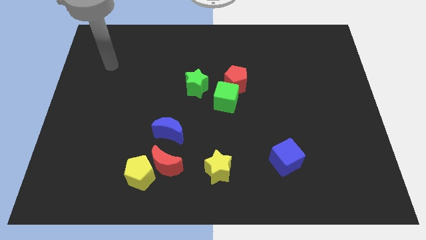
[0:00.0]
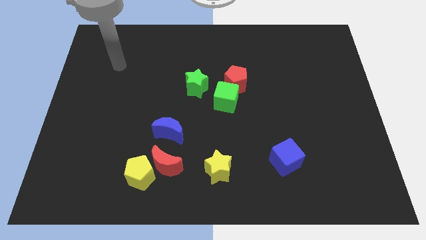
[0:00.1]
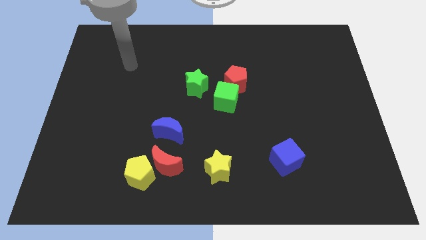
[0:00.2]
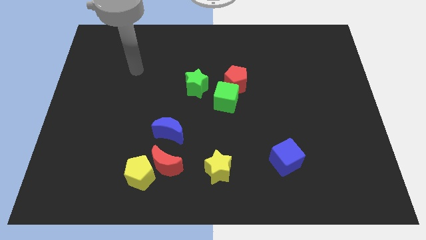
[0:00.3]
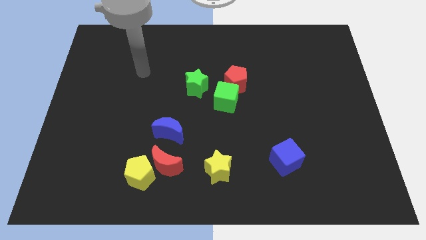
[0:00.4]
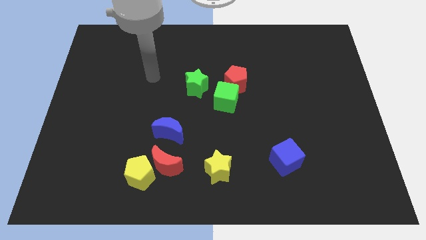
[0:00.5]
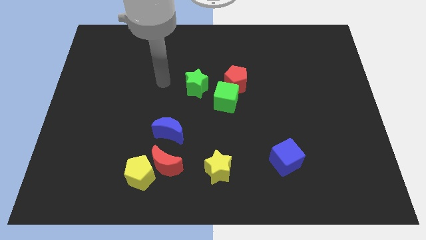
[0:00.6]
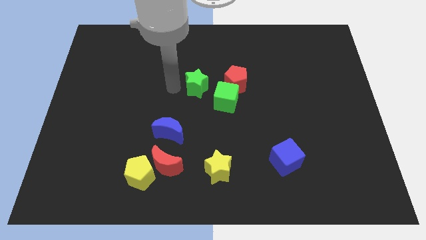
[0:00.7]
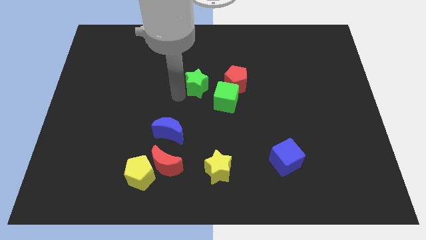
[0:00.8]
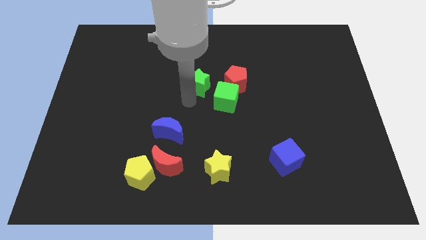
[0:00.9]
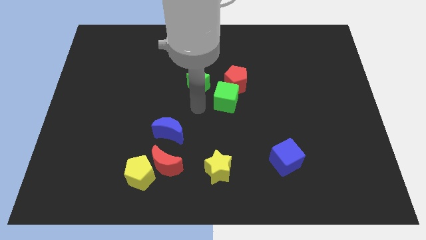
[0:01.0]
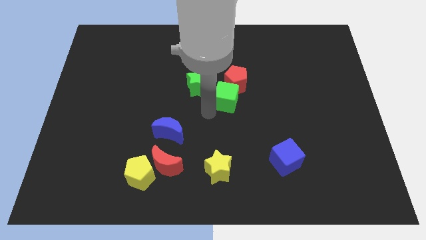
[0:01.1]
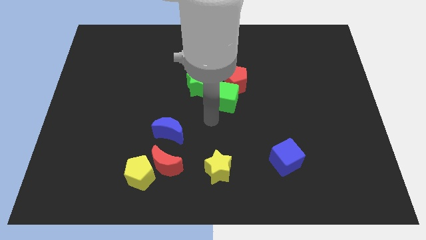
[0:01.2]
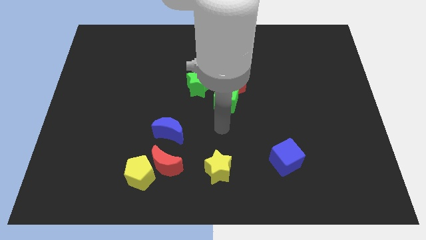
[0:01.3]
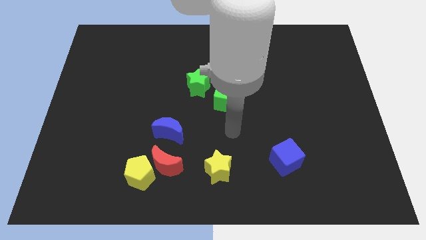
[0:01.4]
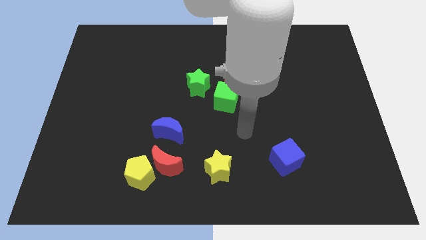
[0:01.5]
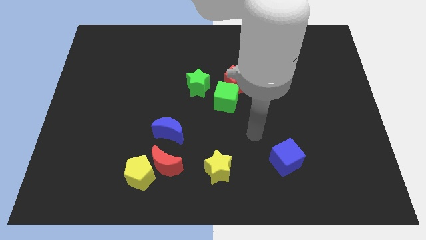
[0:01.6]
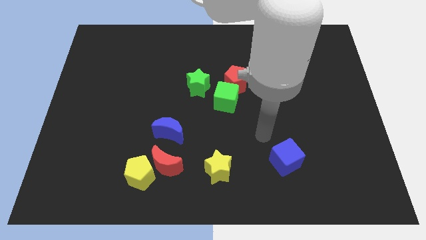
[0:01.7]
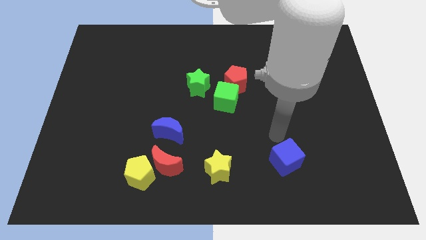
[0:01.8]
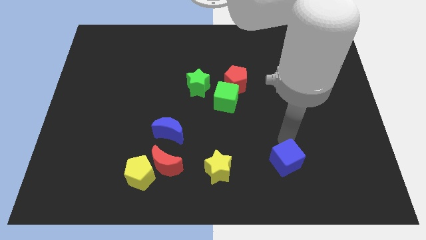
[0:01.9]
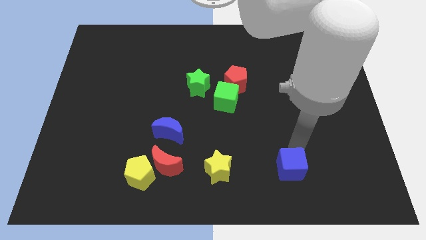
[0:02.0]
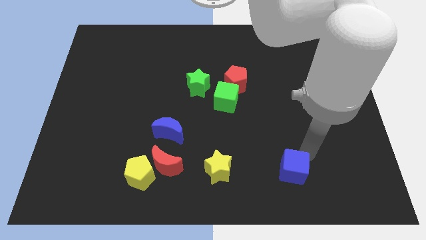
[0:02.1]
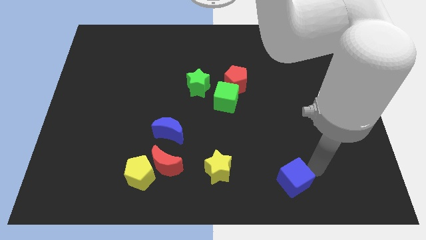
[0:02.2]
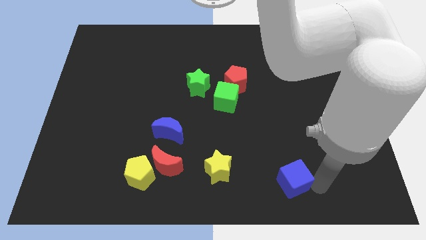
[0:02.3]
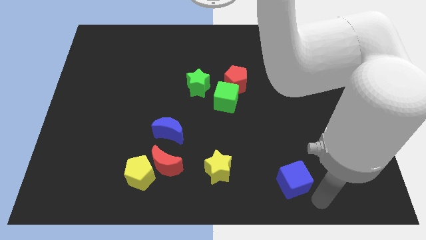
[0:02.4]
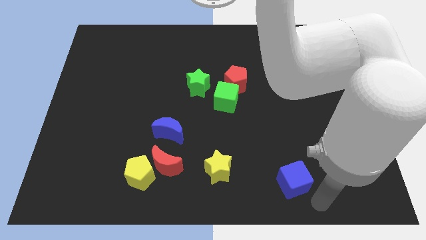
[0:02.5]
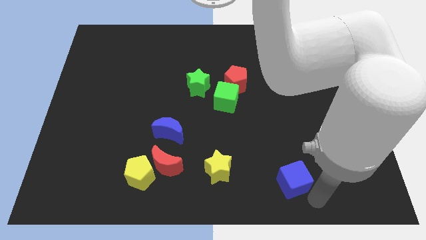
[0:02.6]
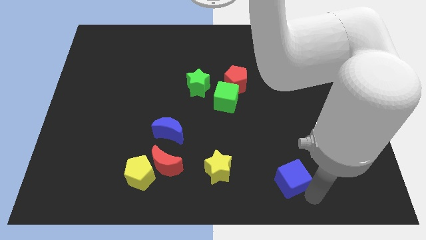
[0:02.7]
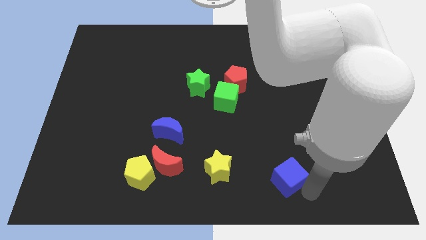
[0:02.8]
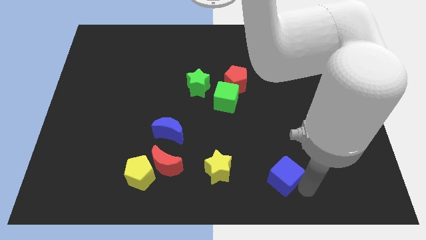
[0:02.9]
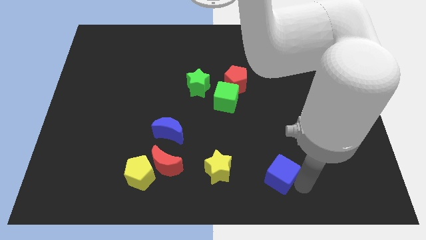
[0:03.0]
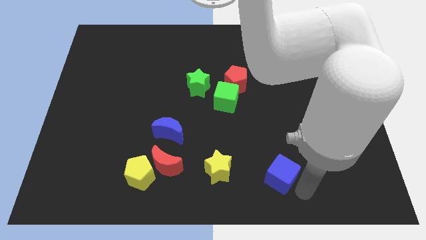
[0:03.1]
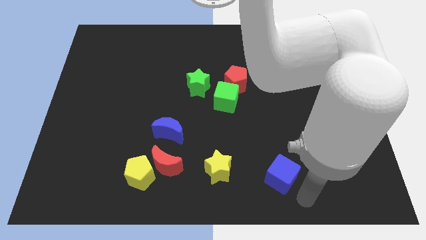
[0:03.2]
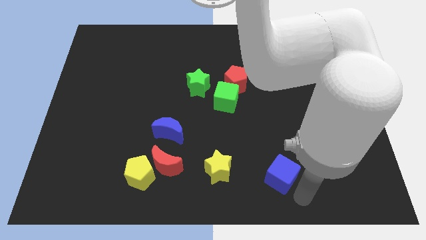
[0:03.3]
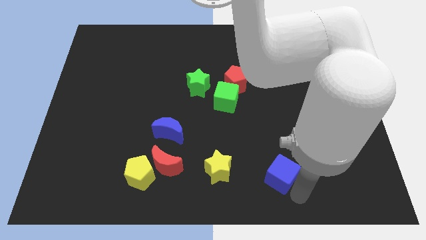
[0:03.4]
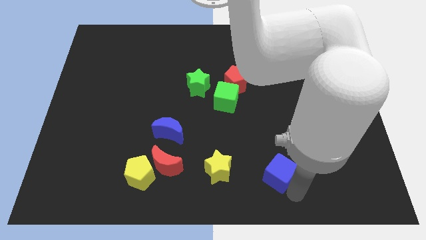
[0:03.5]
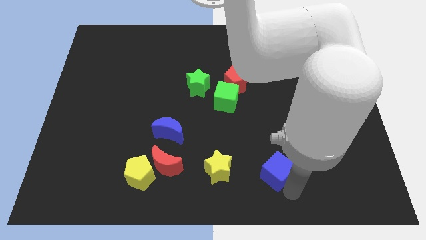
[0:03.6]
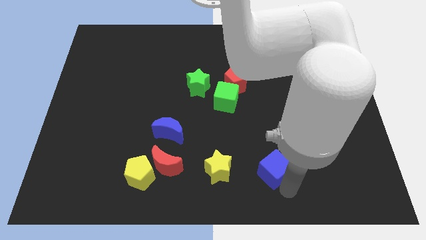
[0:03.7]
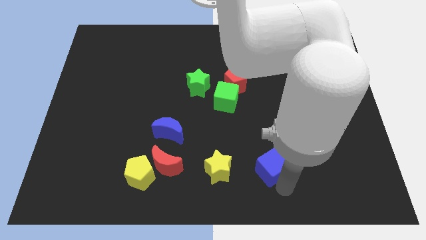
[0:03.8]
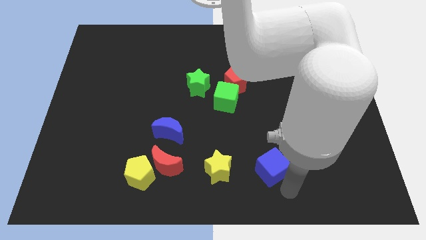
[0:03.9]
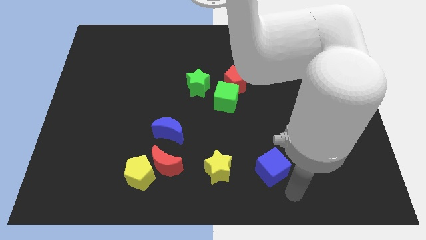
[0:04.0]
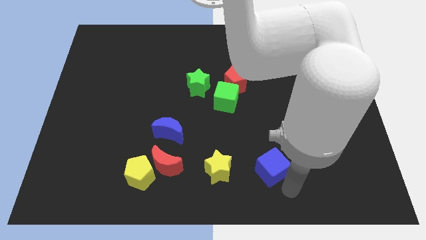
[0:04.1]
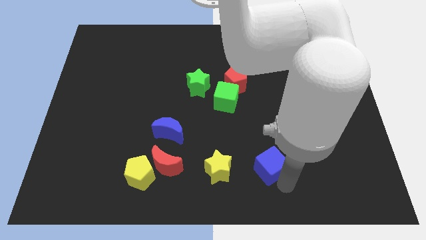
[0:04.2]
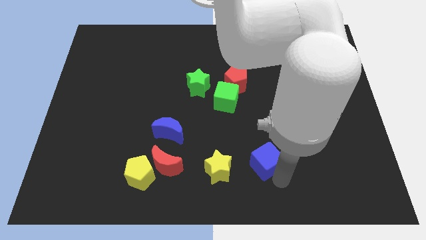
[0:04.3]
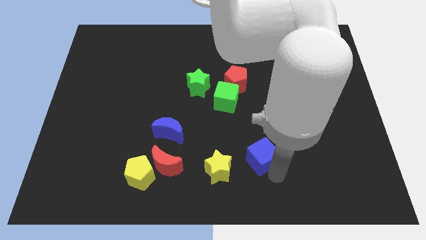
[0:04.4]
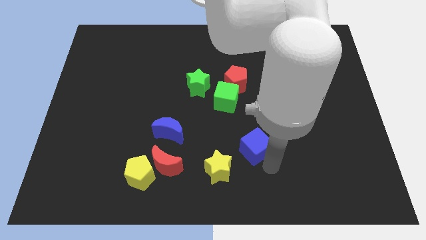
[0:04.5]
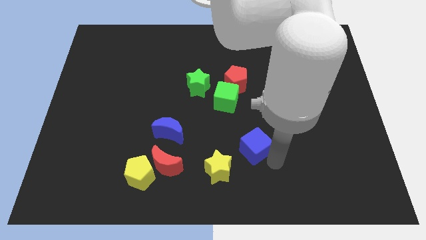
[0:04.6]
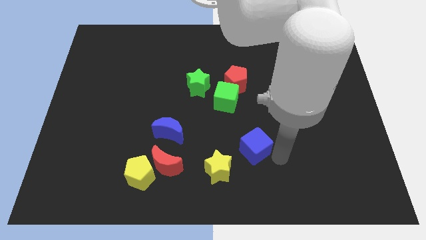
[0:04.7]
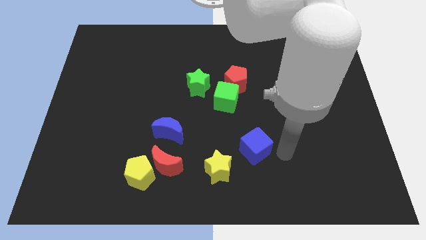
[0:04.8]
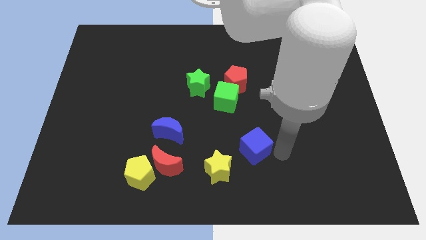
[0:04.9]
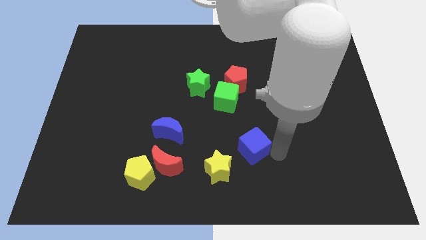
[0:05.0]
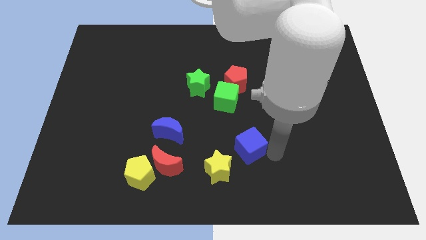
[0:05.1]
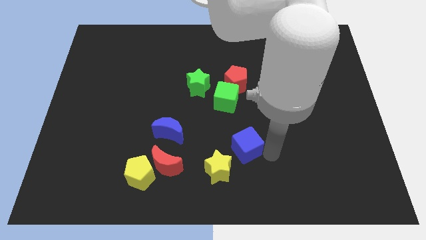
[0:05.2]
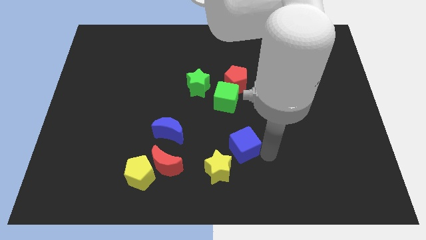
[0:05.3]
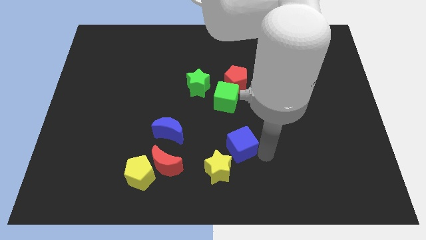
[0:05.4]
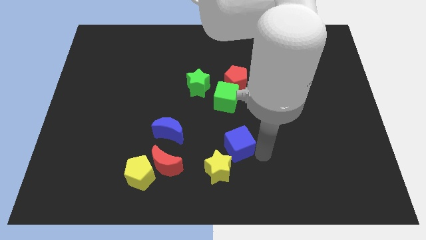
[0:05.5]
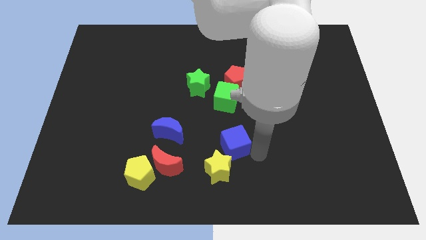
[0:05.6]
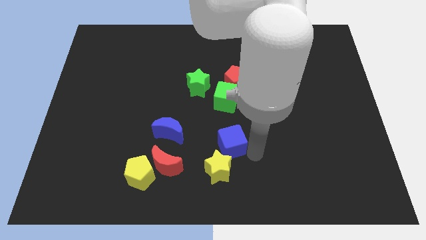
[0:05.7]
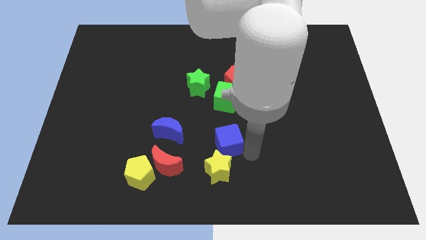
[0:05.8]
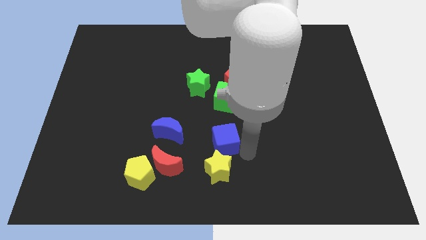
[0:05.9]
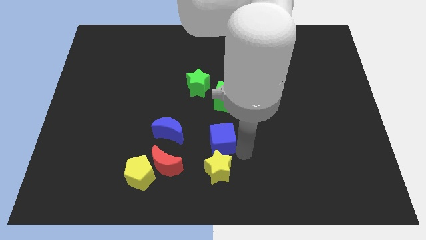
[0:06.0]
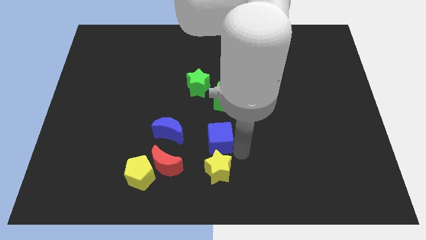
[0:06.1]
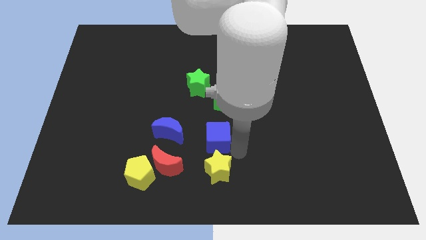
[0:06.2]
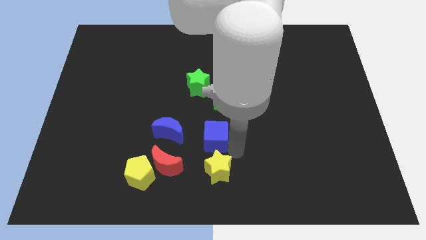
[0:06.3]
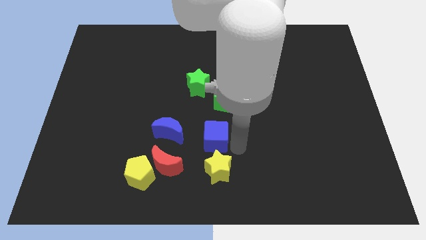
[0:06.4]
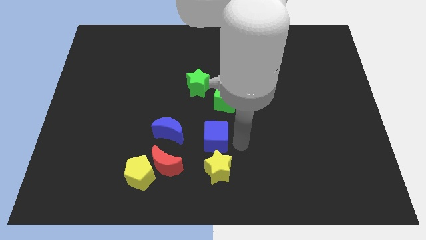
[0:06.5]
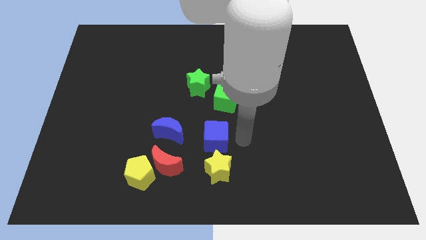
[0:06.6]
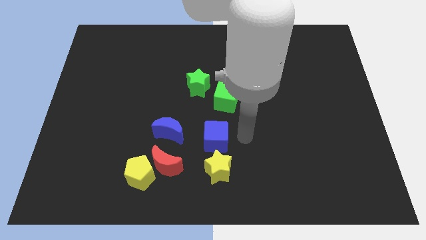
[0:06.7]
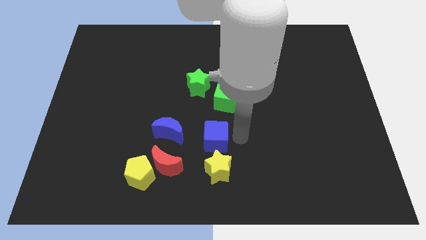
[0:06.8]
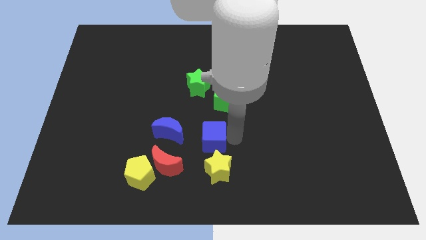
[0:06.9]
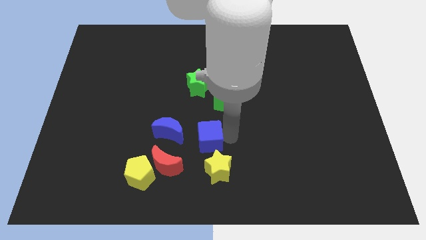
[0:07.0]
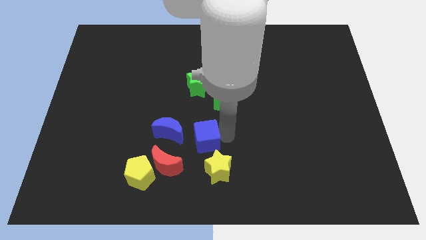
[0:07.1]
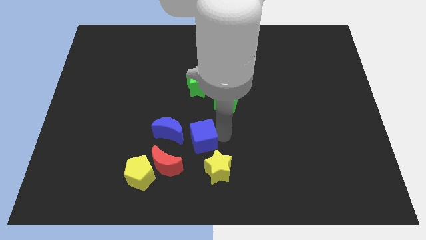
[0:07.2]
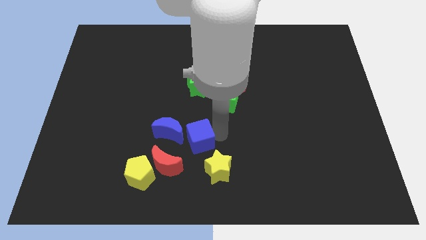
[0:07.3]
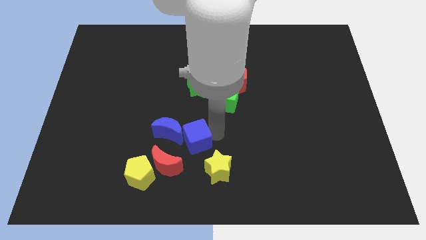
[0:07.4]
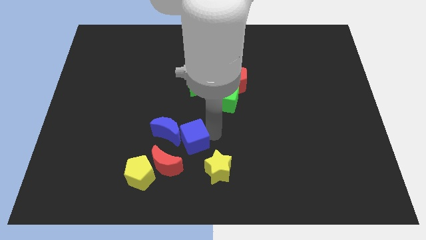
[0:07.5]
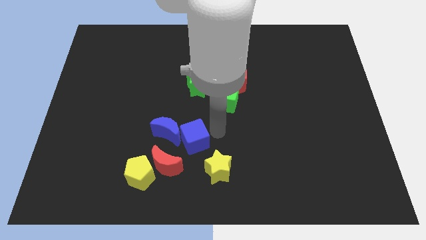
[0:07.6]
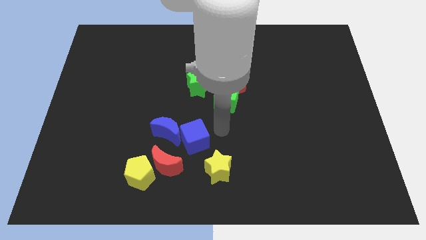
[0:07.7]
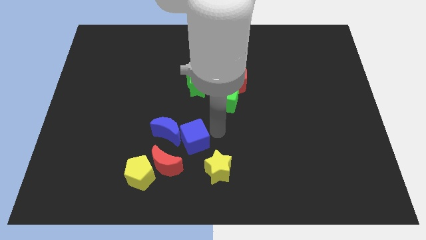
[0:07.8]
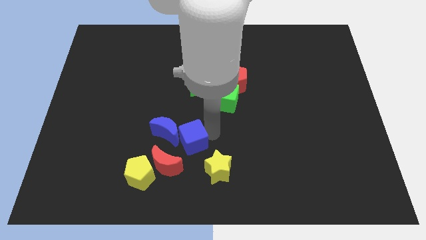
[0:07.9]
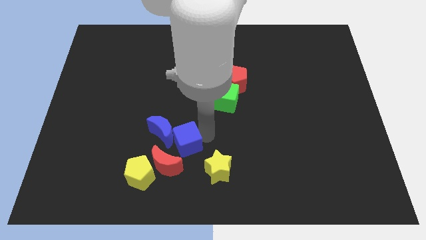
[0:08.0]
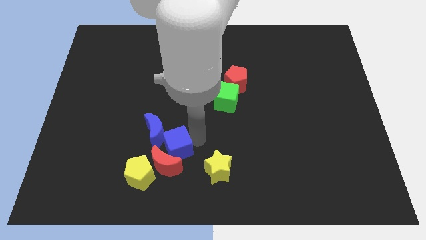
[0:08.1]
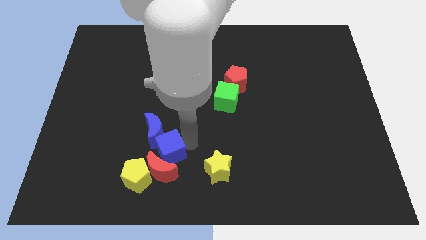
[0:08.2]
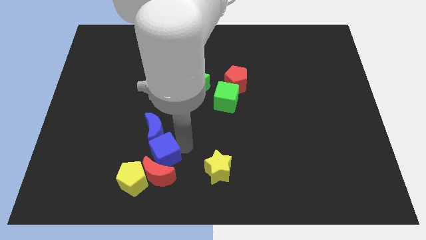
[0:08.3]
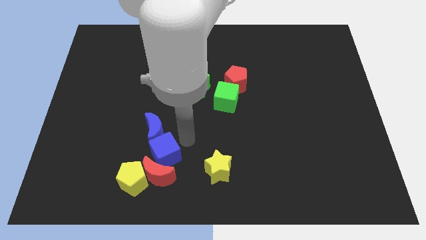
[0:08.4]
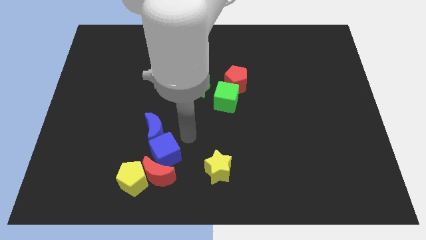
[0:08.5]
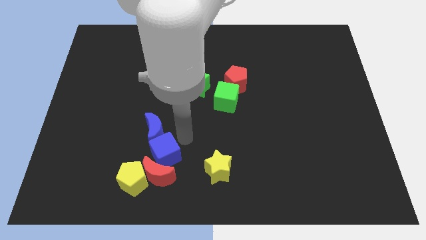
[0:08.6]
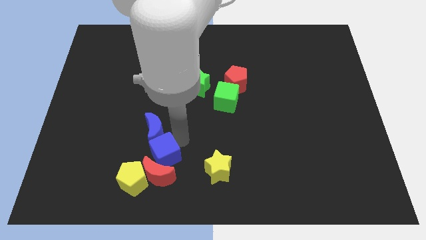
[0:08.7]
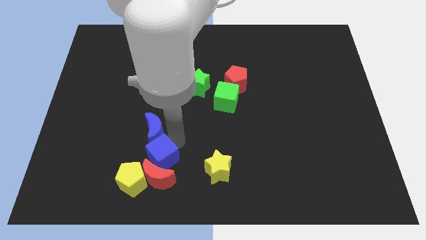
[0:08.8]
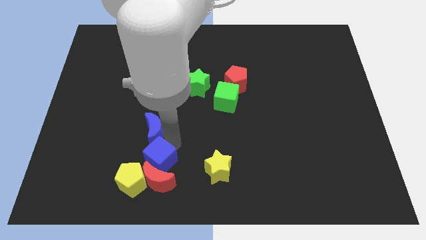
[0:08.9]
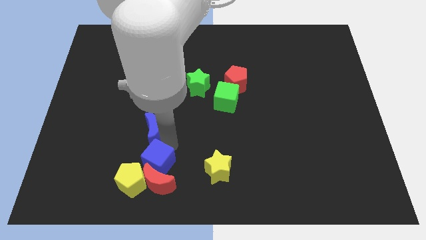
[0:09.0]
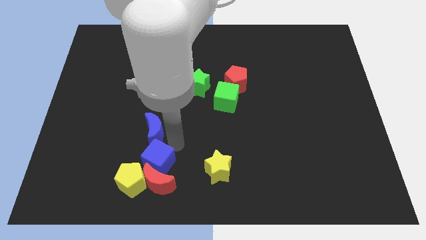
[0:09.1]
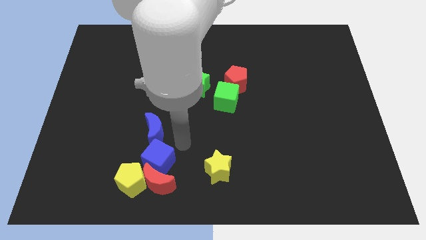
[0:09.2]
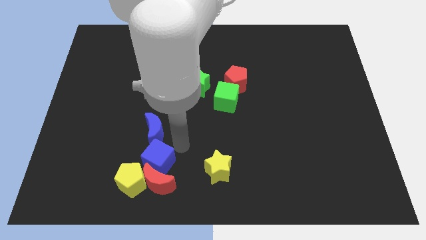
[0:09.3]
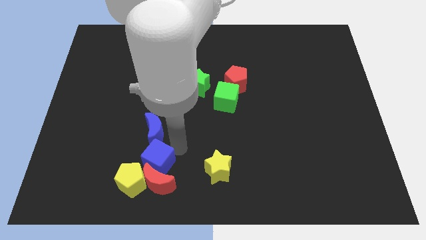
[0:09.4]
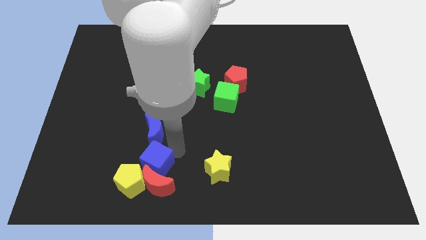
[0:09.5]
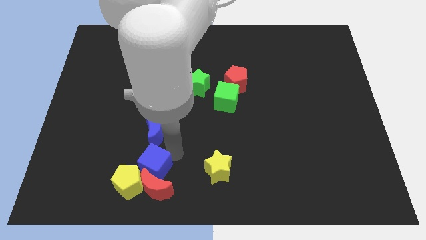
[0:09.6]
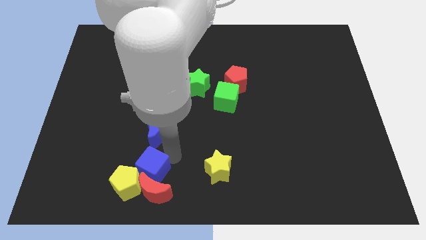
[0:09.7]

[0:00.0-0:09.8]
move the blue cube next to the yellow pentagon
